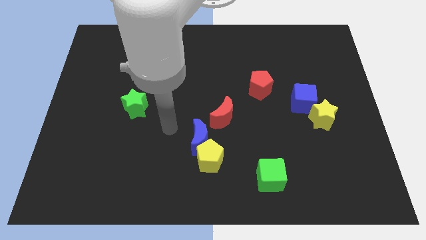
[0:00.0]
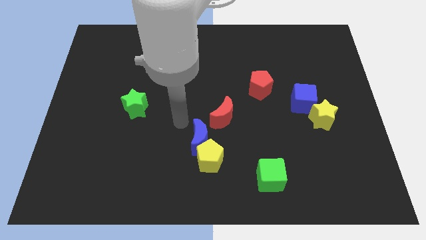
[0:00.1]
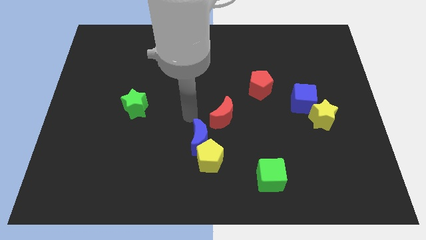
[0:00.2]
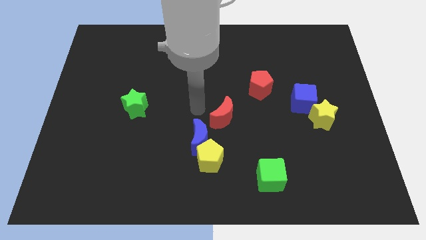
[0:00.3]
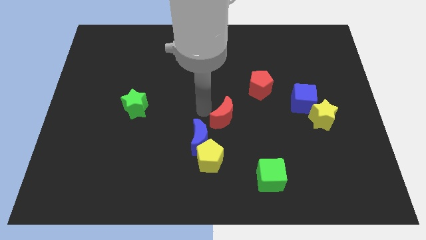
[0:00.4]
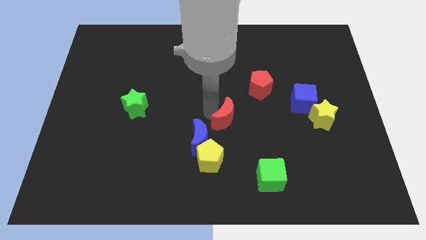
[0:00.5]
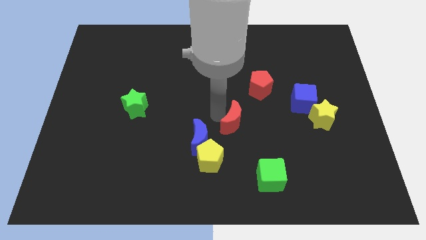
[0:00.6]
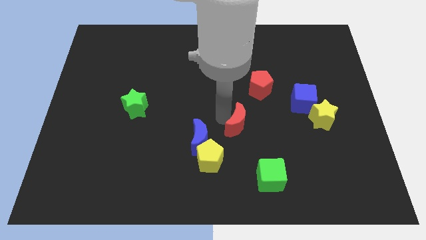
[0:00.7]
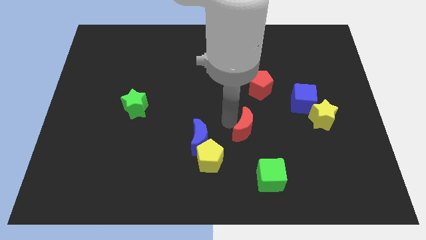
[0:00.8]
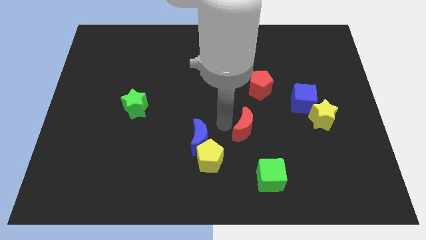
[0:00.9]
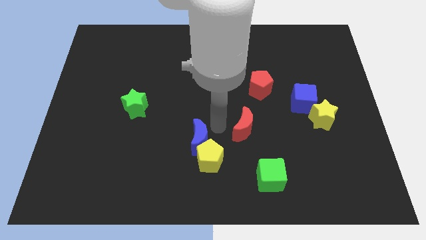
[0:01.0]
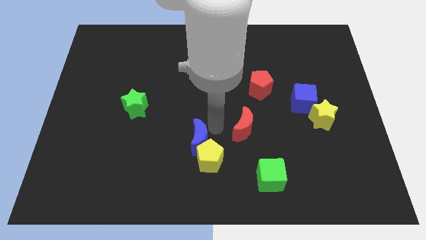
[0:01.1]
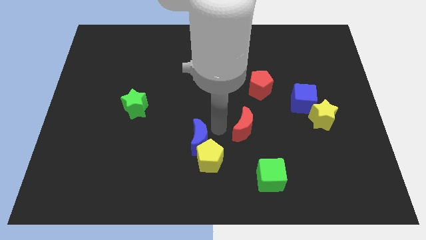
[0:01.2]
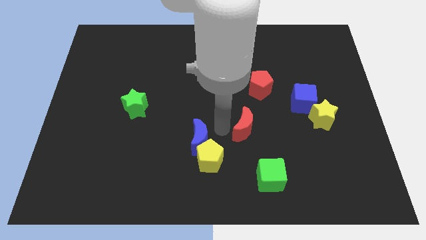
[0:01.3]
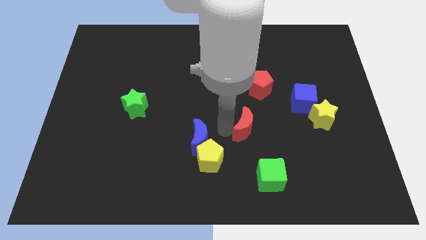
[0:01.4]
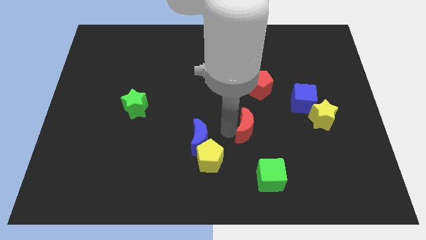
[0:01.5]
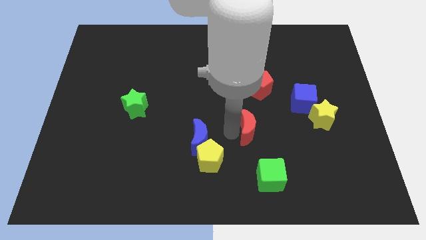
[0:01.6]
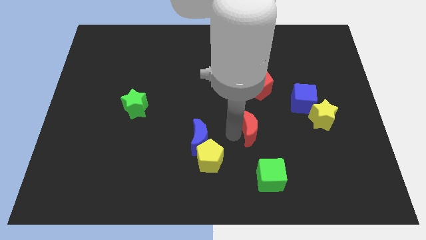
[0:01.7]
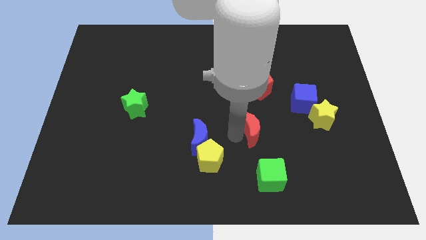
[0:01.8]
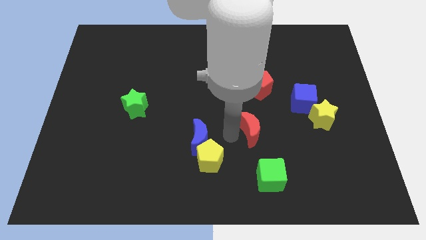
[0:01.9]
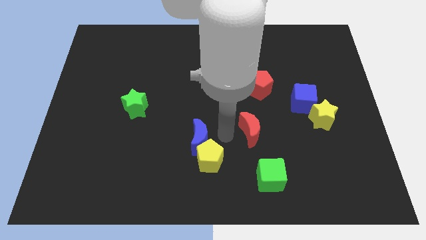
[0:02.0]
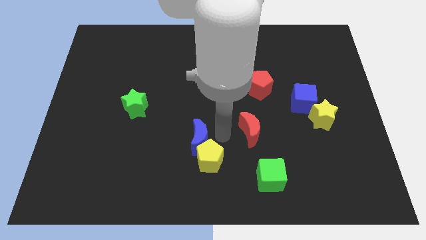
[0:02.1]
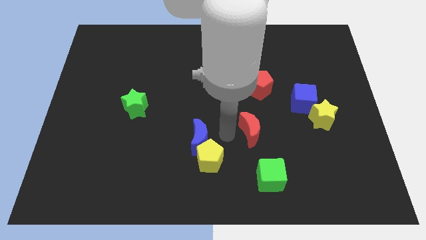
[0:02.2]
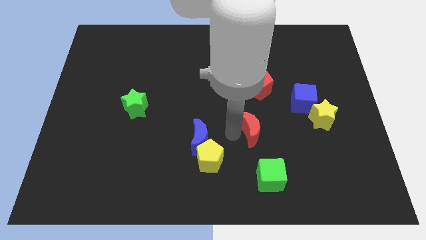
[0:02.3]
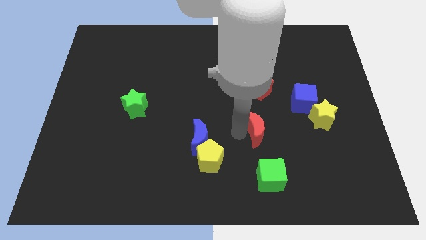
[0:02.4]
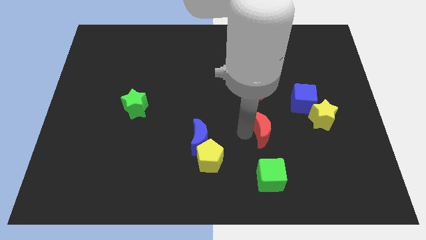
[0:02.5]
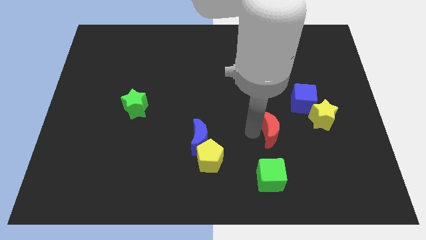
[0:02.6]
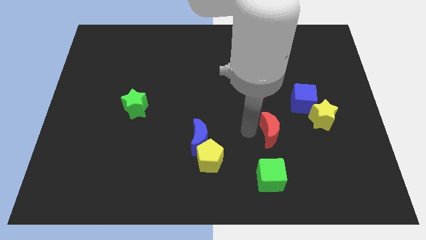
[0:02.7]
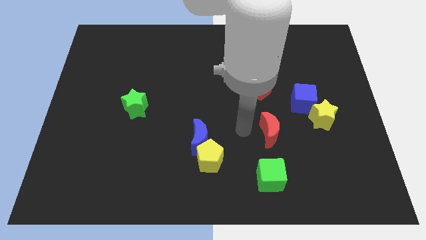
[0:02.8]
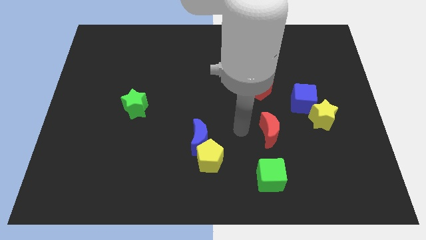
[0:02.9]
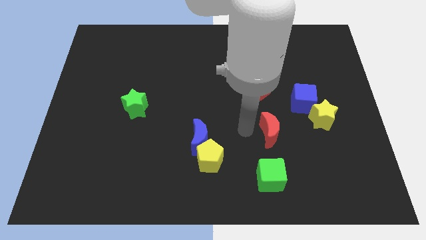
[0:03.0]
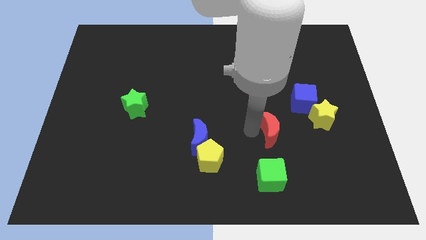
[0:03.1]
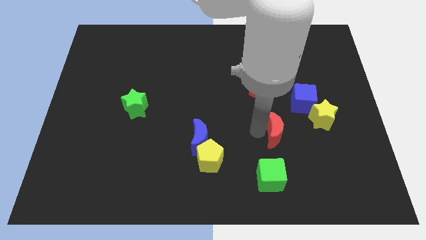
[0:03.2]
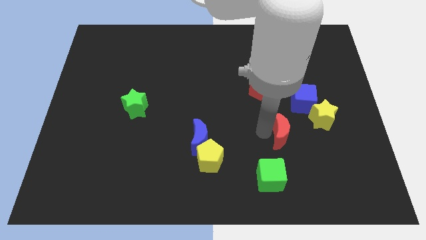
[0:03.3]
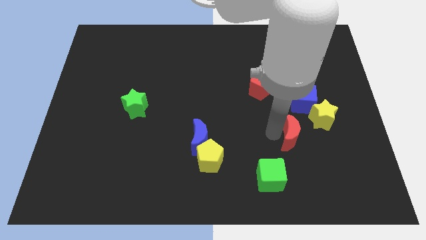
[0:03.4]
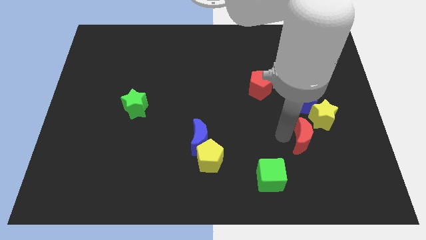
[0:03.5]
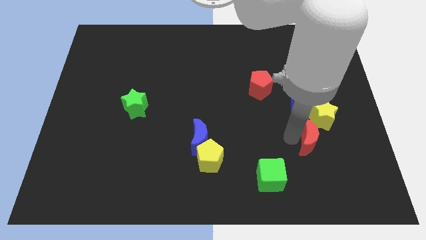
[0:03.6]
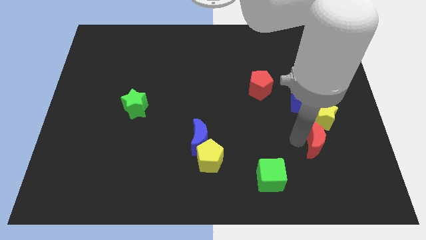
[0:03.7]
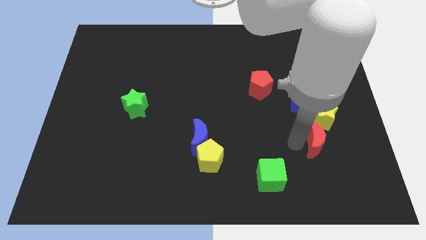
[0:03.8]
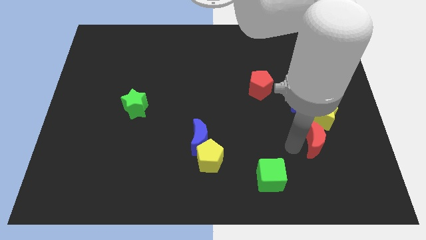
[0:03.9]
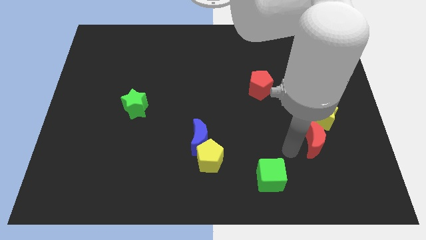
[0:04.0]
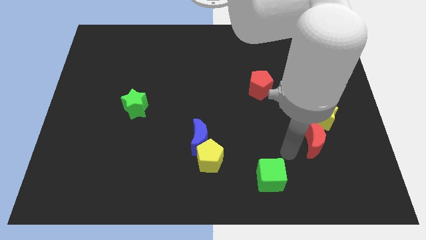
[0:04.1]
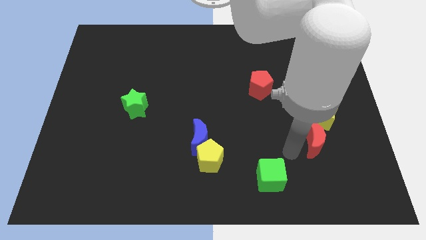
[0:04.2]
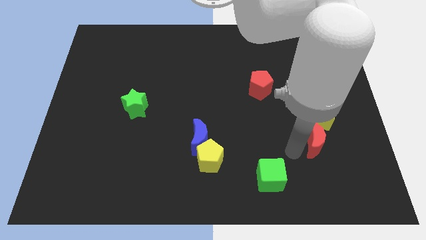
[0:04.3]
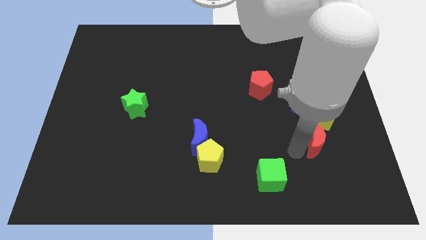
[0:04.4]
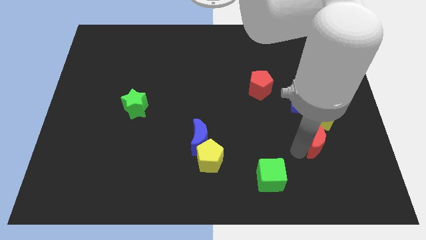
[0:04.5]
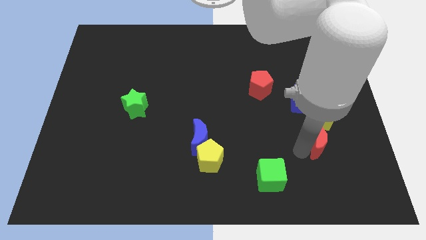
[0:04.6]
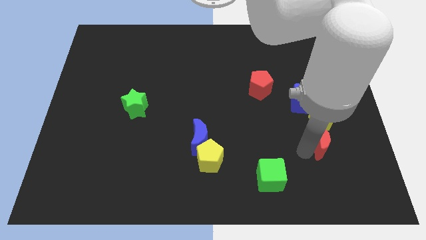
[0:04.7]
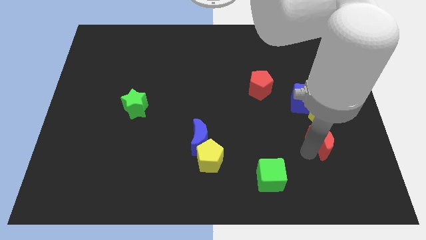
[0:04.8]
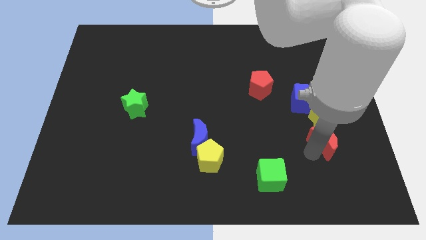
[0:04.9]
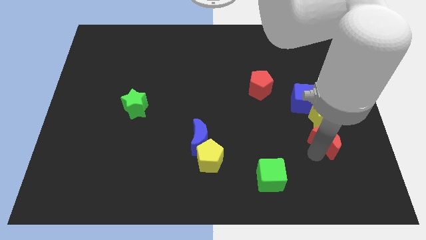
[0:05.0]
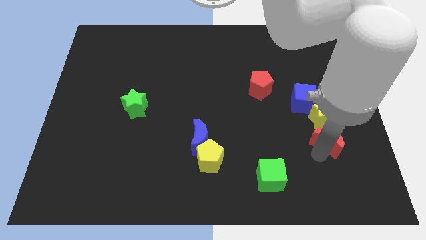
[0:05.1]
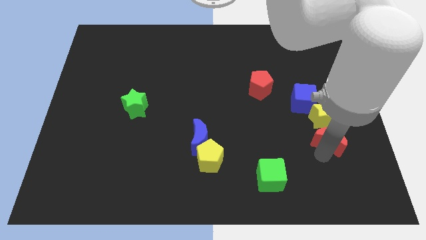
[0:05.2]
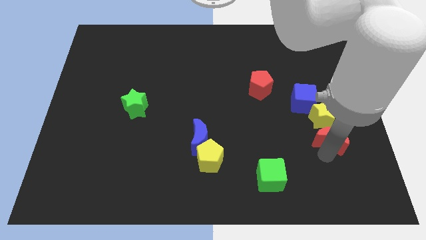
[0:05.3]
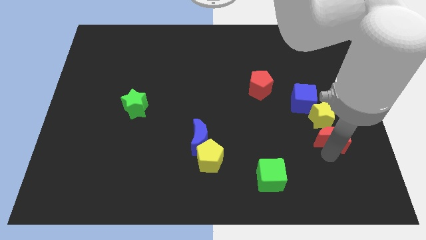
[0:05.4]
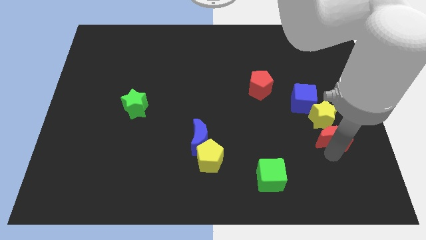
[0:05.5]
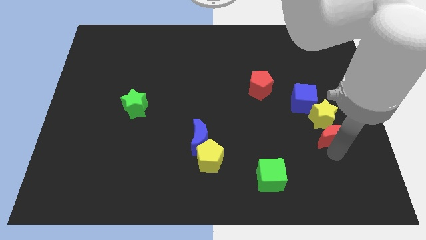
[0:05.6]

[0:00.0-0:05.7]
put the red moon to the bottom right side of the blue cube

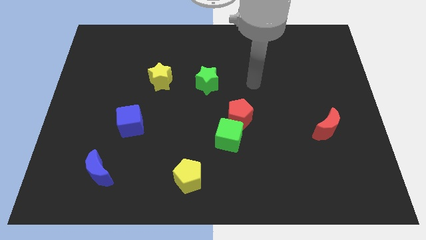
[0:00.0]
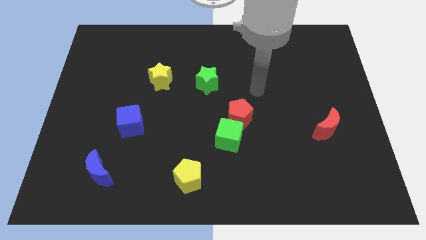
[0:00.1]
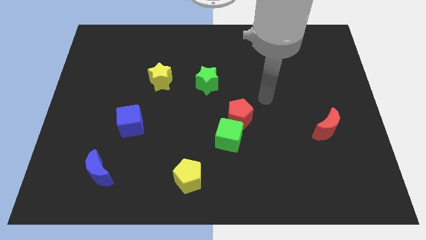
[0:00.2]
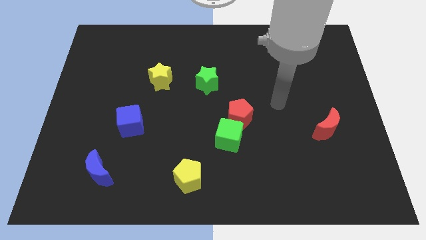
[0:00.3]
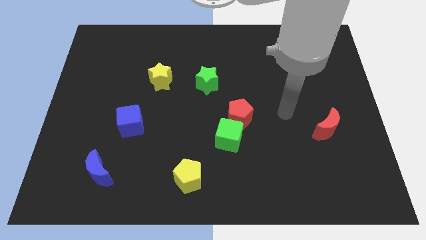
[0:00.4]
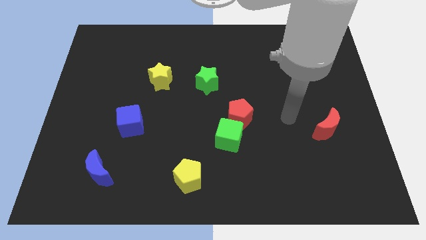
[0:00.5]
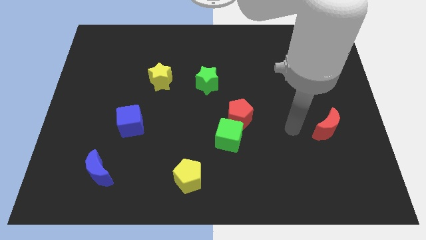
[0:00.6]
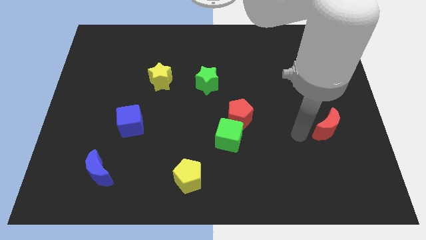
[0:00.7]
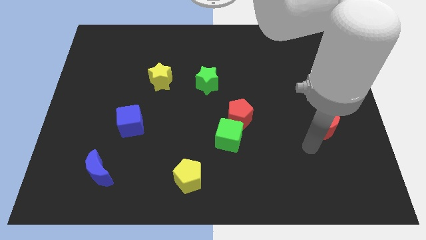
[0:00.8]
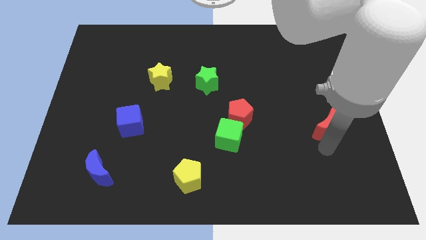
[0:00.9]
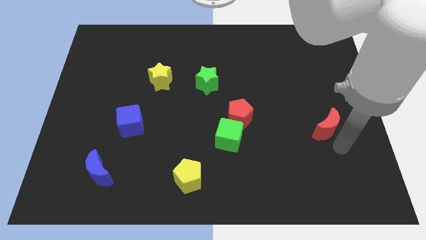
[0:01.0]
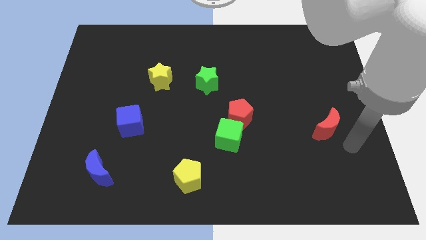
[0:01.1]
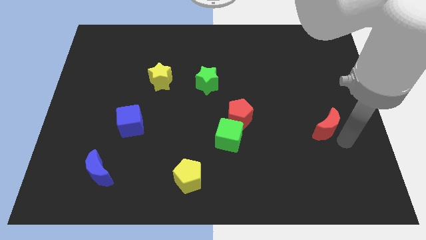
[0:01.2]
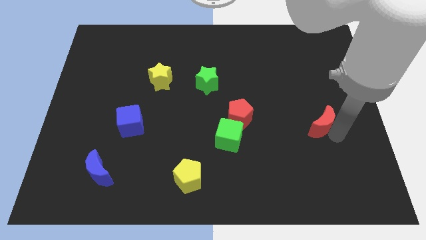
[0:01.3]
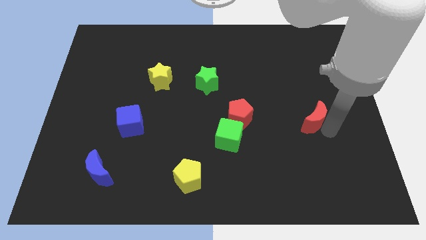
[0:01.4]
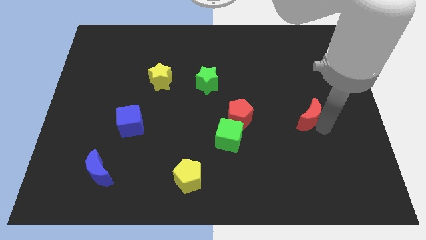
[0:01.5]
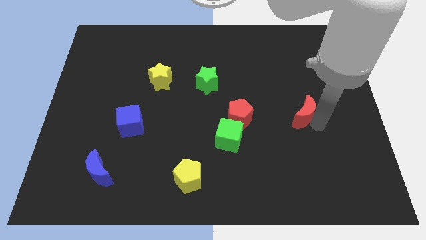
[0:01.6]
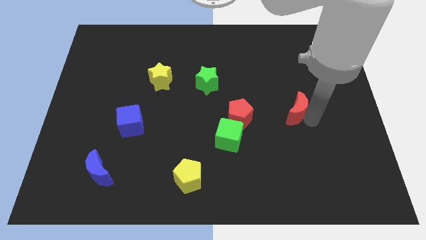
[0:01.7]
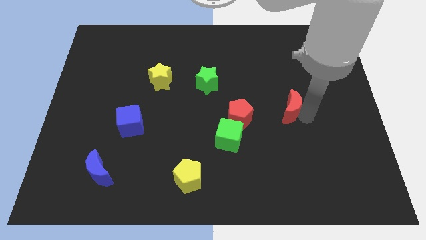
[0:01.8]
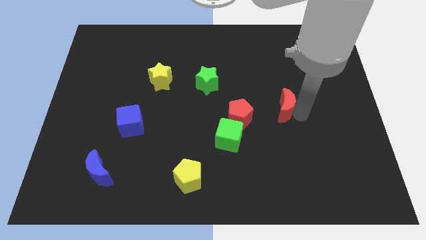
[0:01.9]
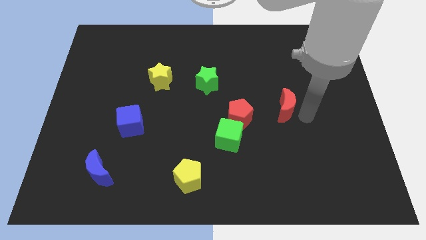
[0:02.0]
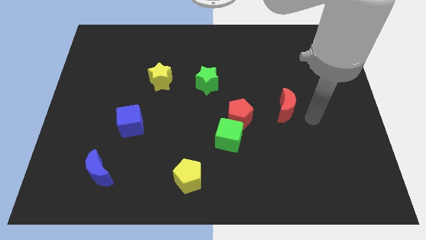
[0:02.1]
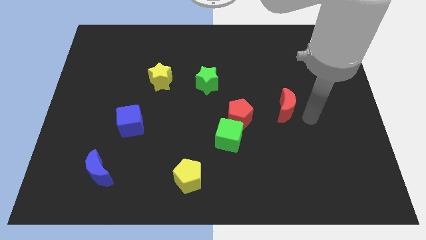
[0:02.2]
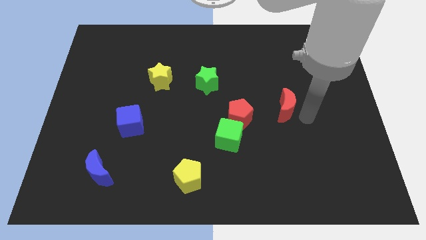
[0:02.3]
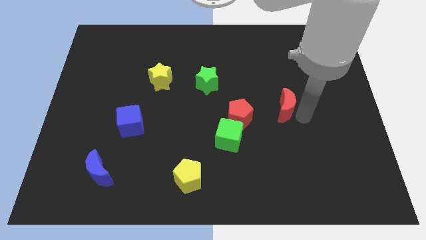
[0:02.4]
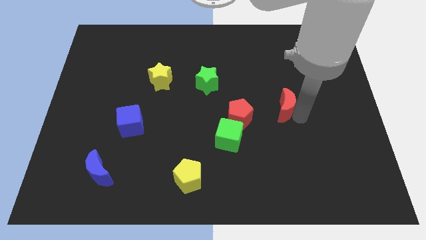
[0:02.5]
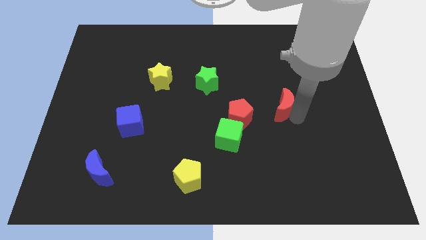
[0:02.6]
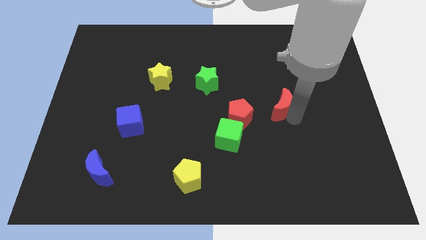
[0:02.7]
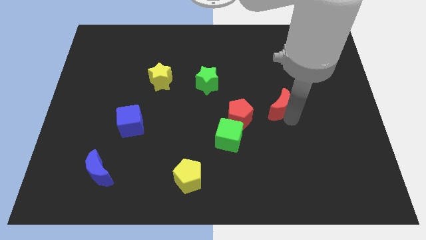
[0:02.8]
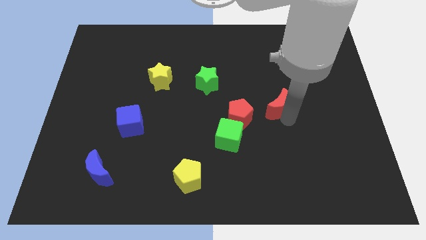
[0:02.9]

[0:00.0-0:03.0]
slide the red moon to the top right side of the red pentagon
